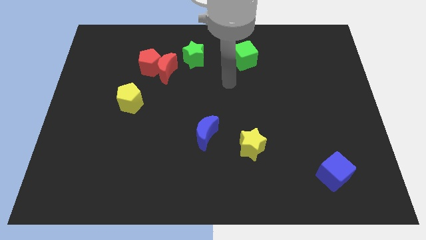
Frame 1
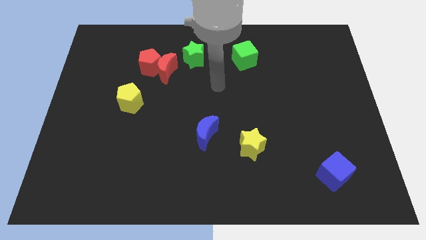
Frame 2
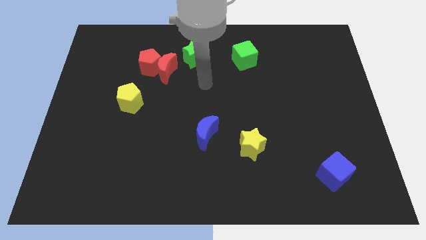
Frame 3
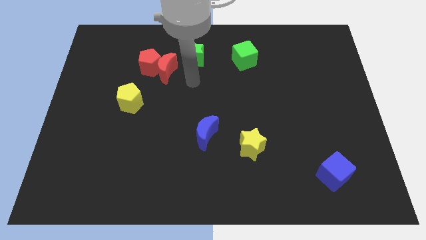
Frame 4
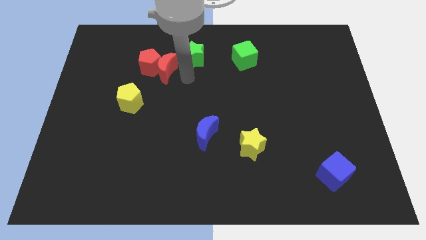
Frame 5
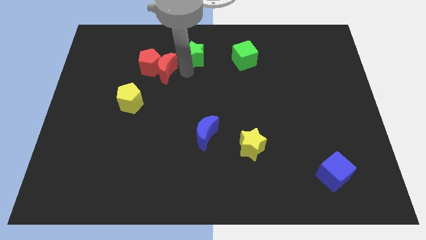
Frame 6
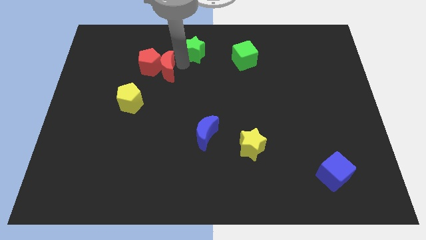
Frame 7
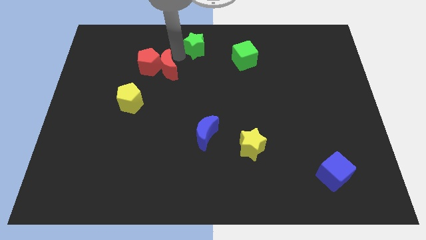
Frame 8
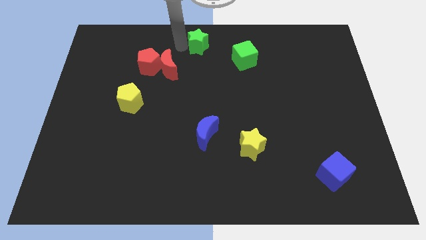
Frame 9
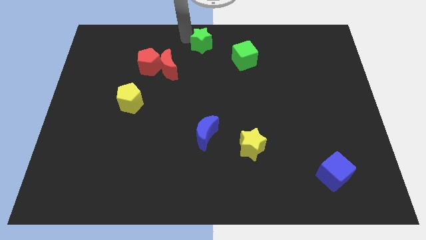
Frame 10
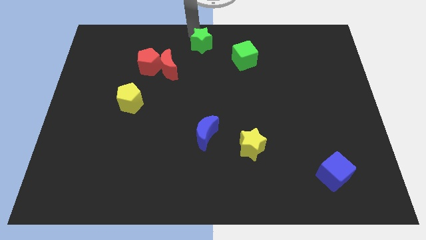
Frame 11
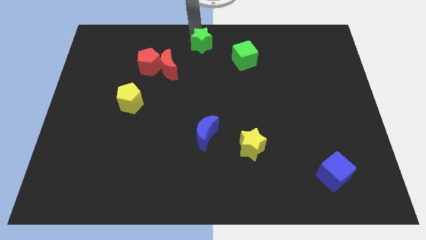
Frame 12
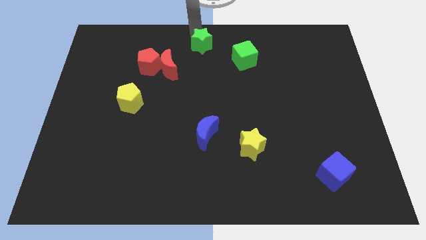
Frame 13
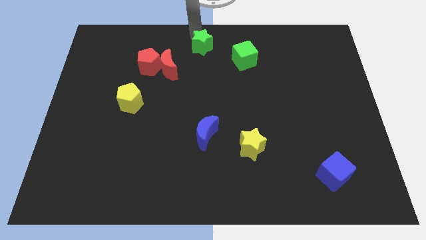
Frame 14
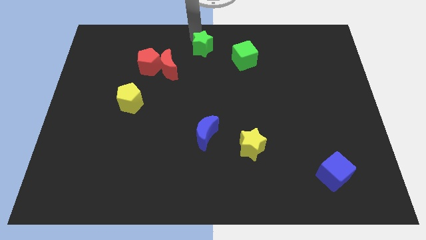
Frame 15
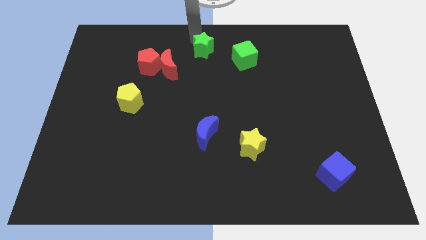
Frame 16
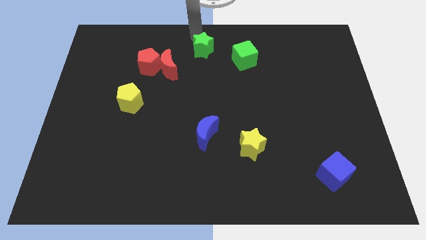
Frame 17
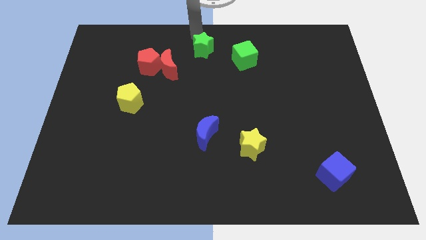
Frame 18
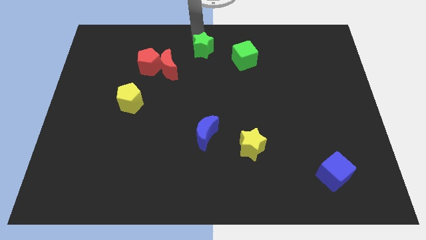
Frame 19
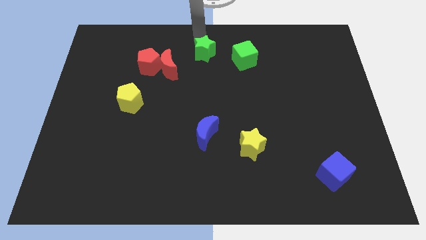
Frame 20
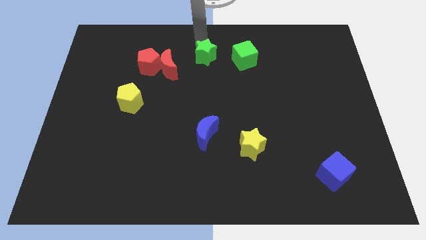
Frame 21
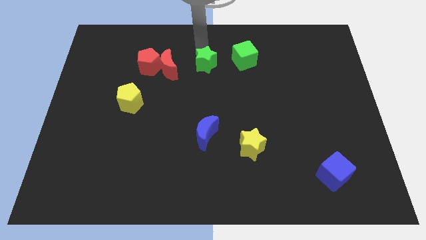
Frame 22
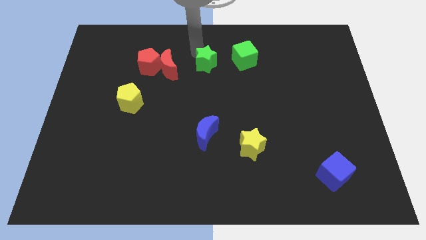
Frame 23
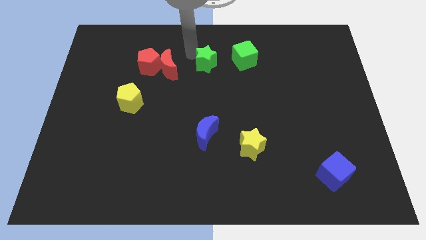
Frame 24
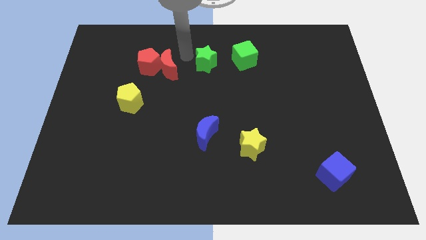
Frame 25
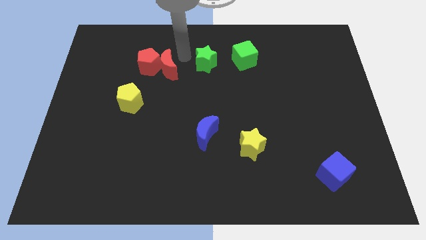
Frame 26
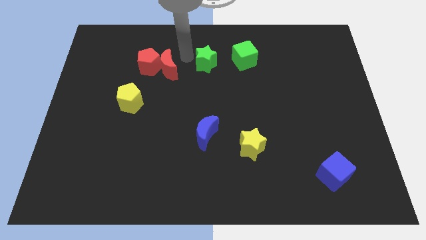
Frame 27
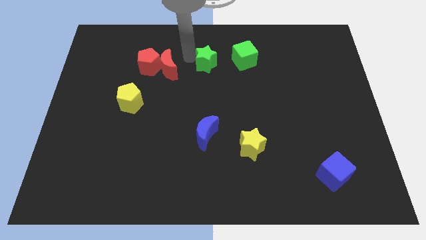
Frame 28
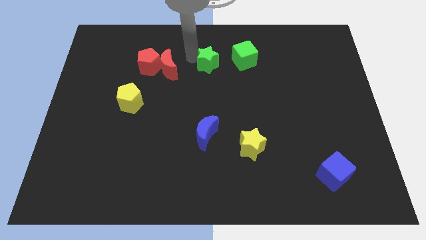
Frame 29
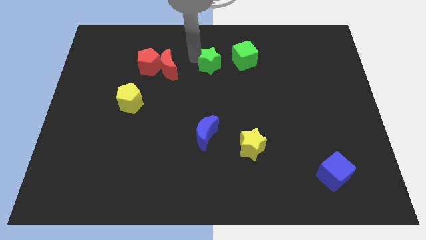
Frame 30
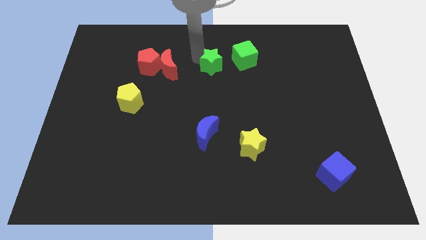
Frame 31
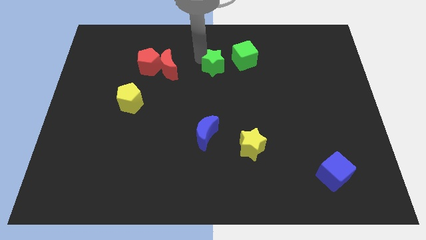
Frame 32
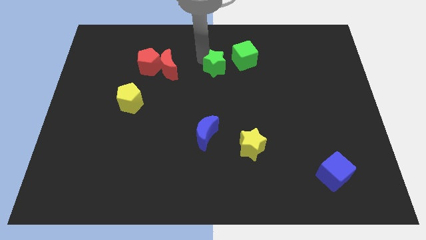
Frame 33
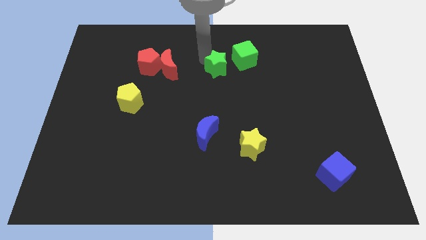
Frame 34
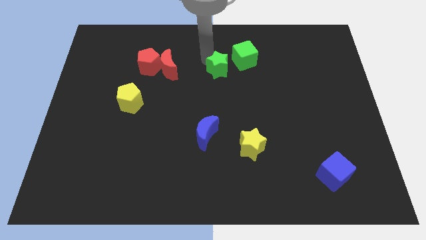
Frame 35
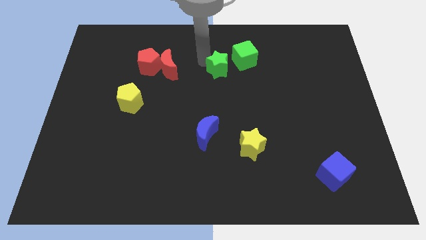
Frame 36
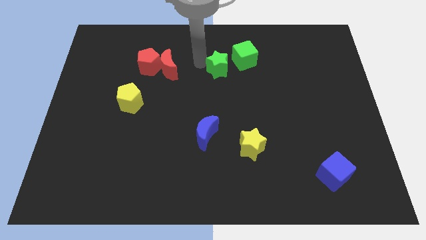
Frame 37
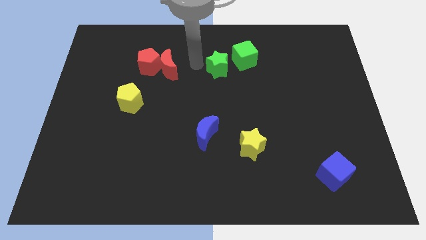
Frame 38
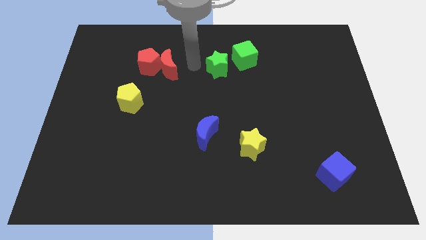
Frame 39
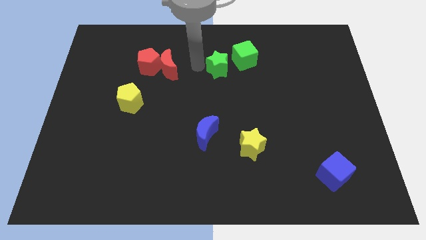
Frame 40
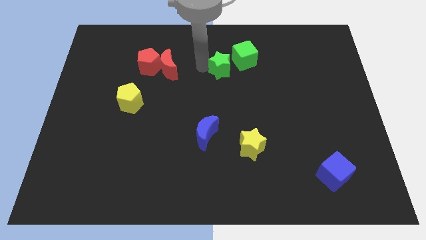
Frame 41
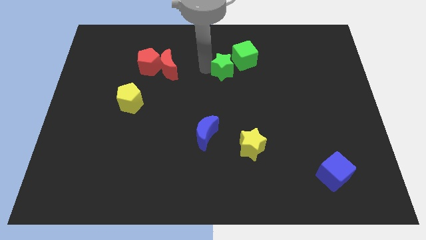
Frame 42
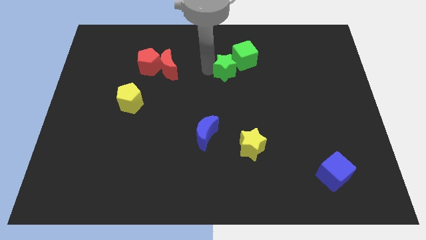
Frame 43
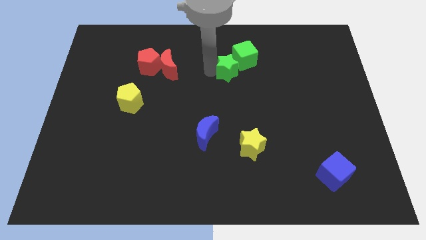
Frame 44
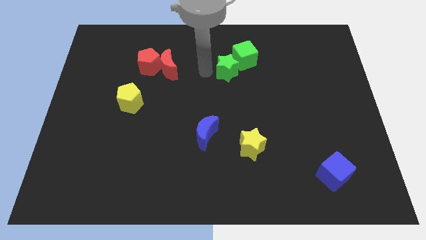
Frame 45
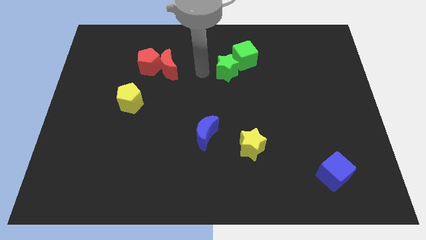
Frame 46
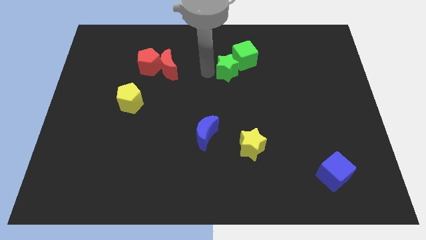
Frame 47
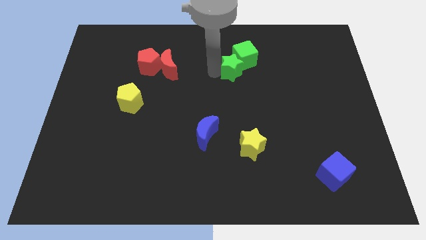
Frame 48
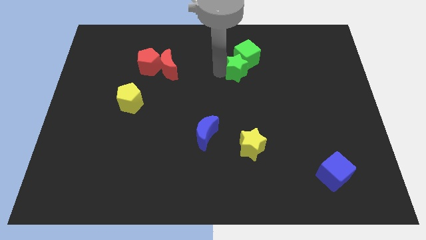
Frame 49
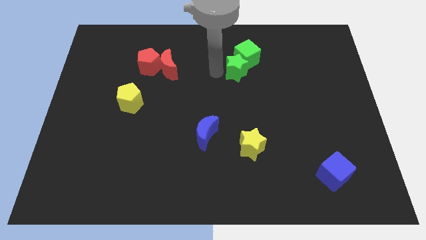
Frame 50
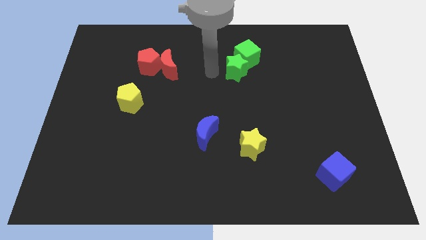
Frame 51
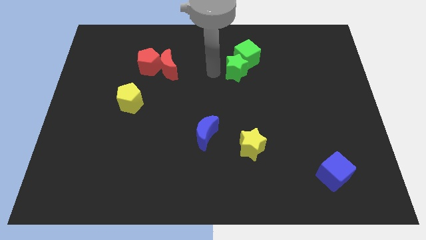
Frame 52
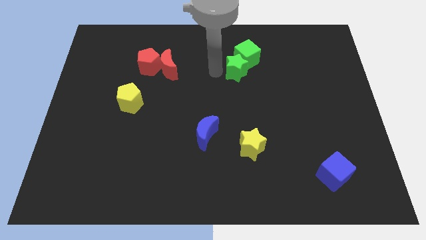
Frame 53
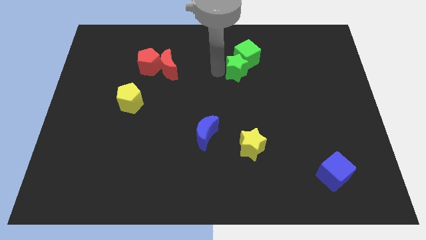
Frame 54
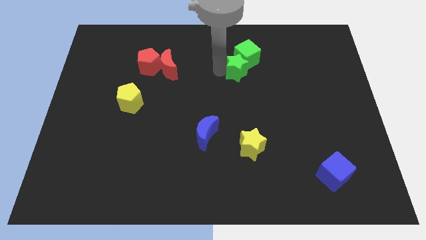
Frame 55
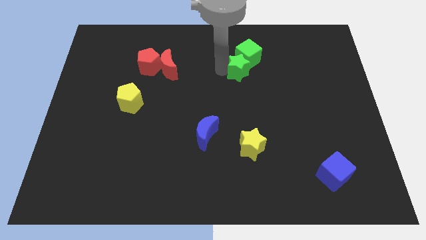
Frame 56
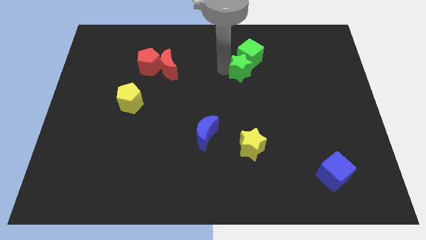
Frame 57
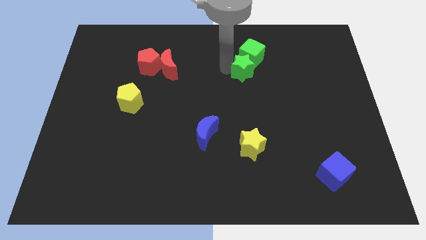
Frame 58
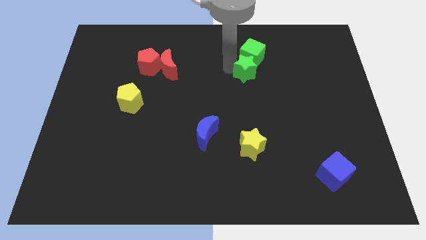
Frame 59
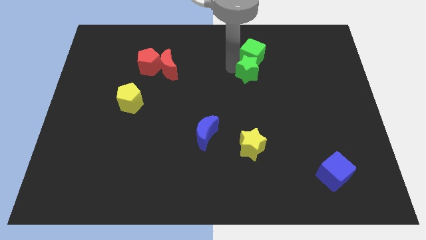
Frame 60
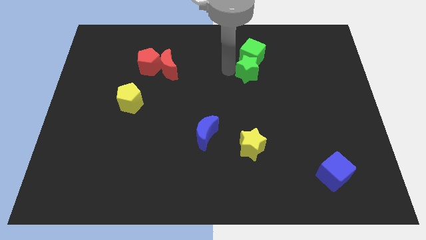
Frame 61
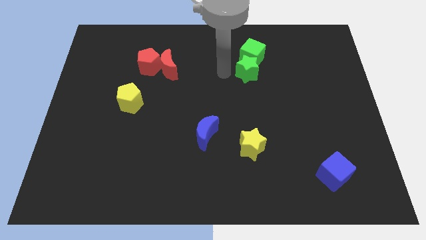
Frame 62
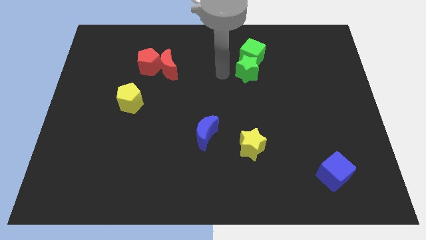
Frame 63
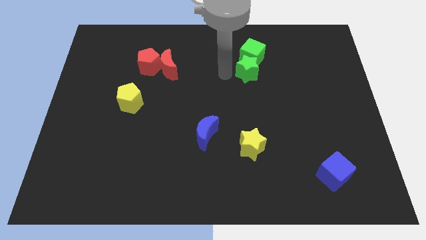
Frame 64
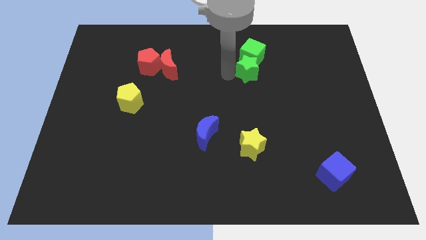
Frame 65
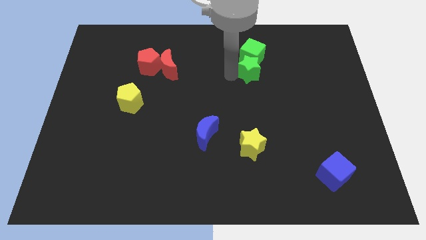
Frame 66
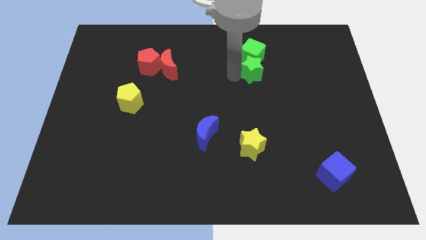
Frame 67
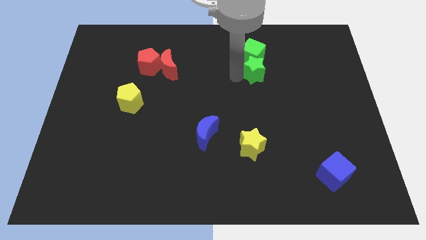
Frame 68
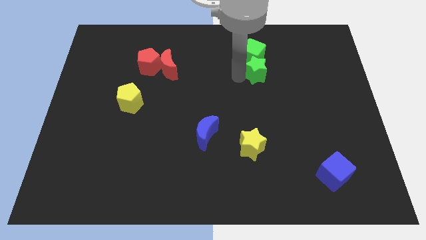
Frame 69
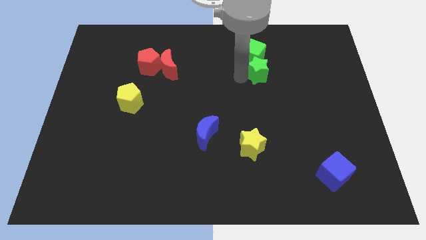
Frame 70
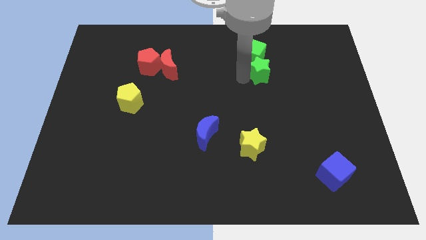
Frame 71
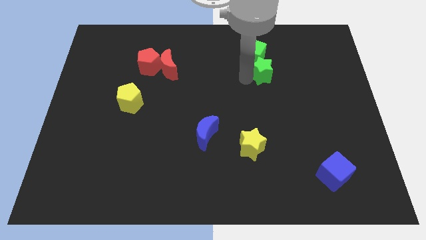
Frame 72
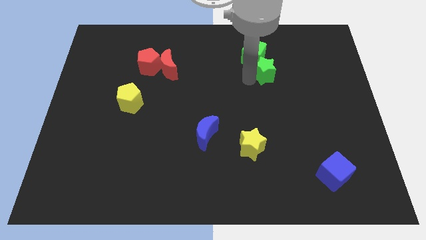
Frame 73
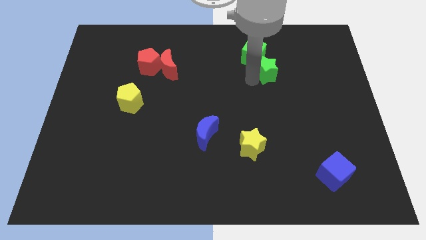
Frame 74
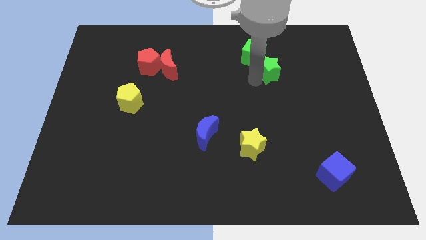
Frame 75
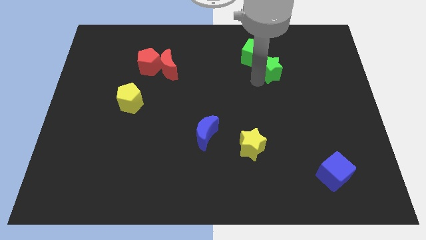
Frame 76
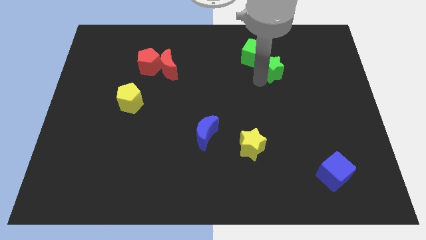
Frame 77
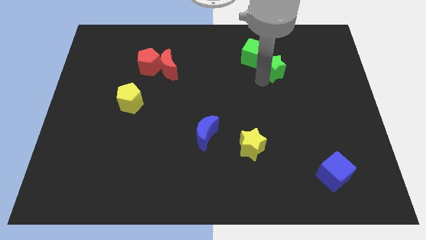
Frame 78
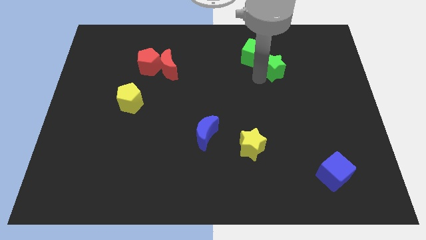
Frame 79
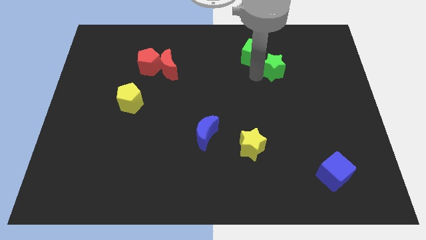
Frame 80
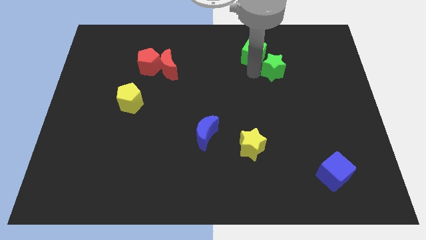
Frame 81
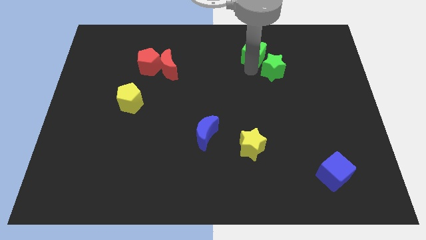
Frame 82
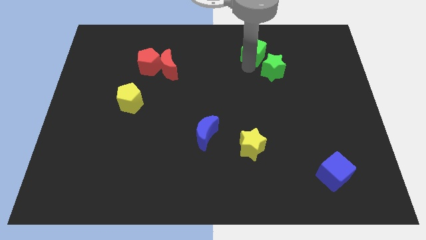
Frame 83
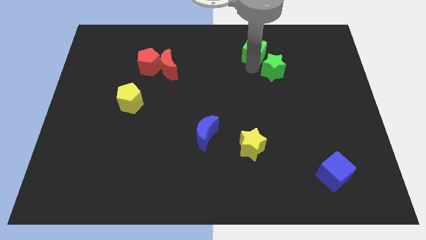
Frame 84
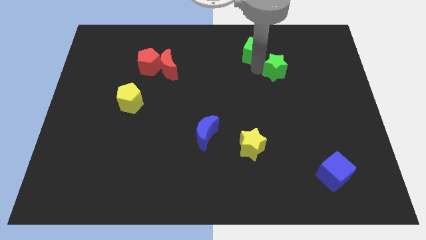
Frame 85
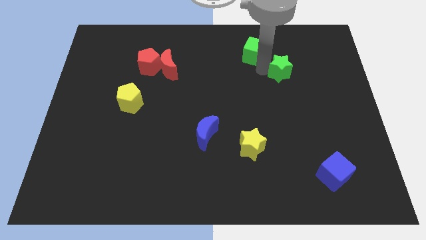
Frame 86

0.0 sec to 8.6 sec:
move the green star right
